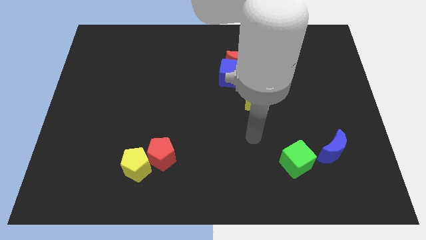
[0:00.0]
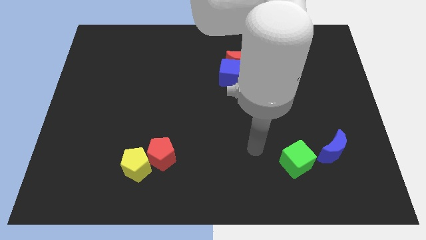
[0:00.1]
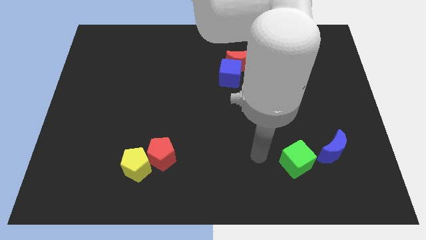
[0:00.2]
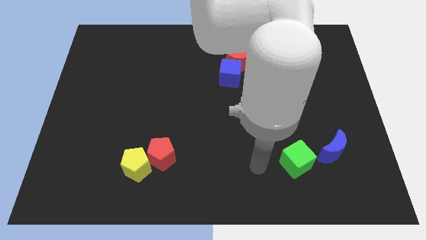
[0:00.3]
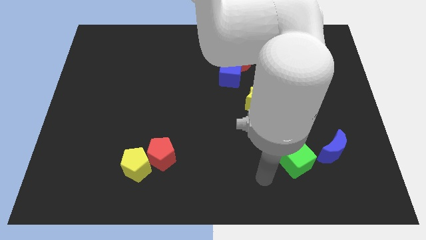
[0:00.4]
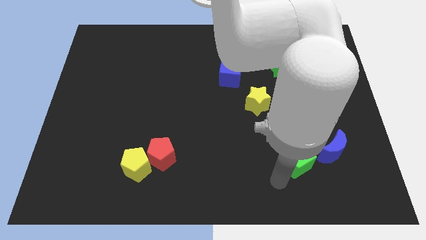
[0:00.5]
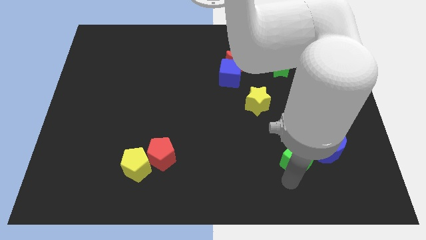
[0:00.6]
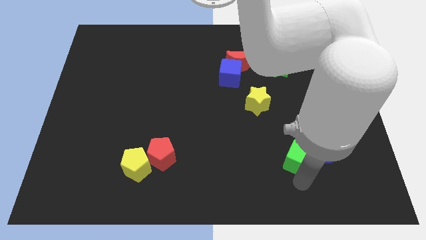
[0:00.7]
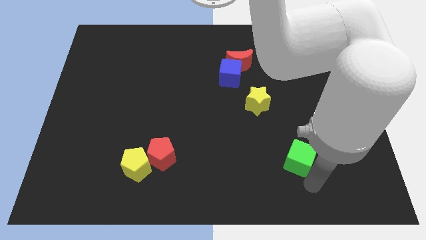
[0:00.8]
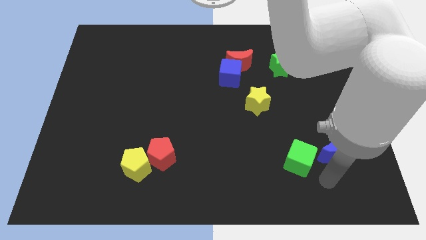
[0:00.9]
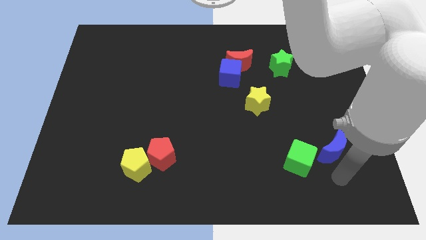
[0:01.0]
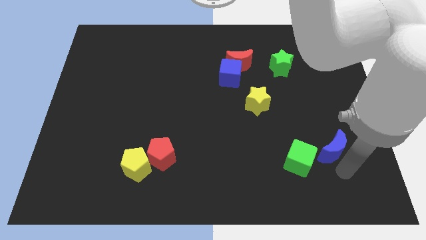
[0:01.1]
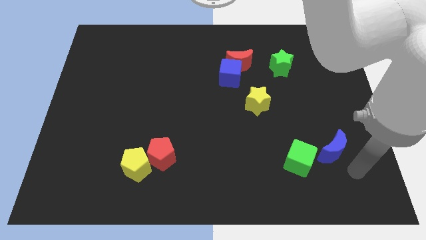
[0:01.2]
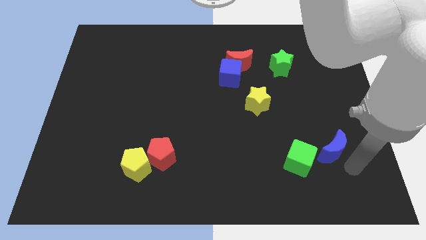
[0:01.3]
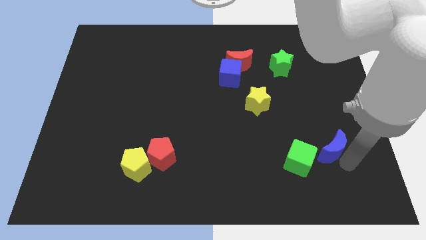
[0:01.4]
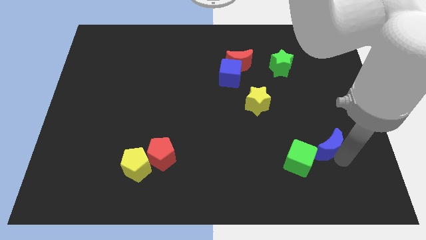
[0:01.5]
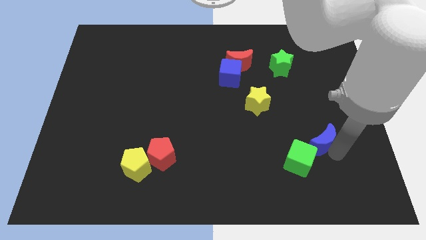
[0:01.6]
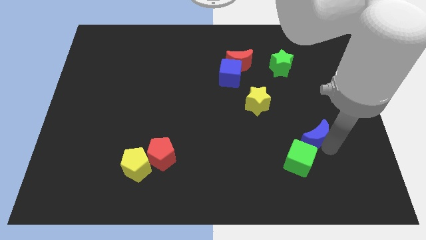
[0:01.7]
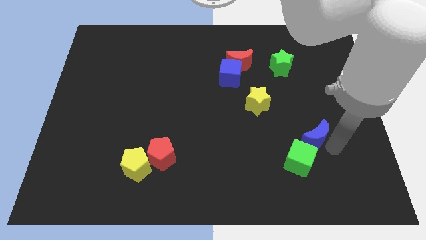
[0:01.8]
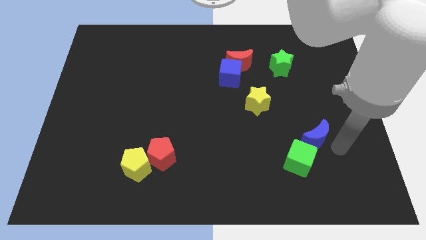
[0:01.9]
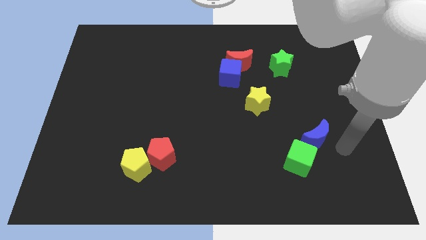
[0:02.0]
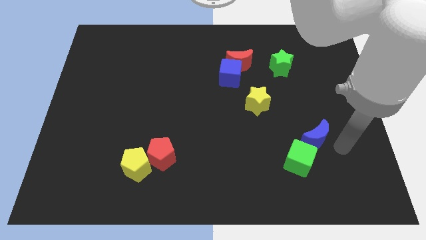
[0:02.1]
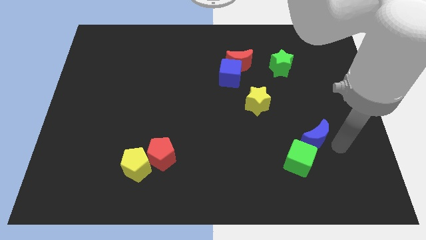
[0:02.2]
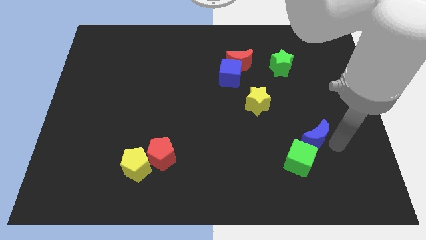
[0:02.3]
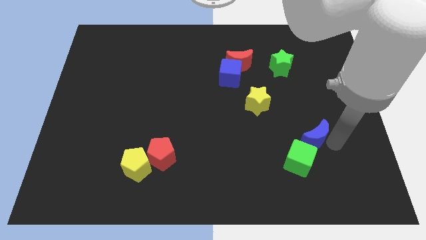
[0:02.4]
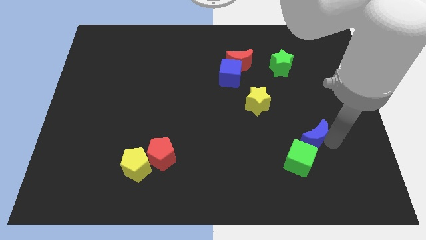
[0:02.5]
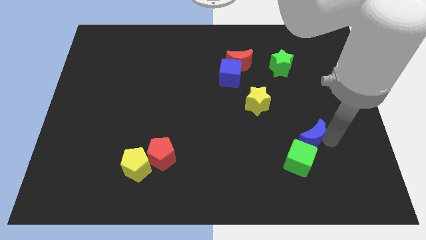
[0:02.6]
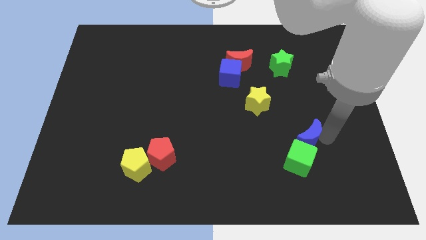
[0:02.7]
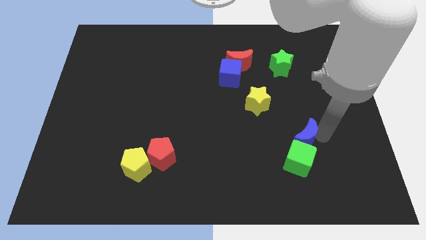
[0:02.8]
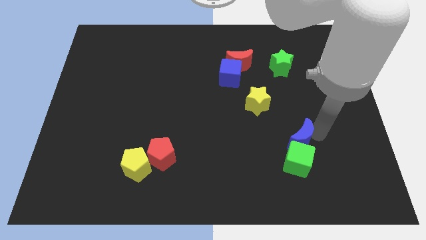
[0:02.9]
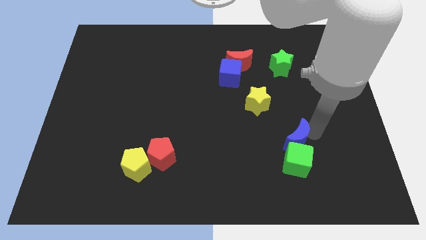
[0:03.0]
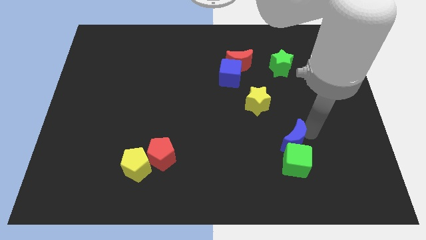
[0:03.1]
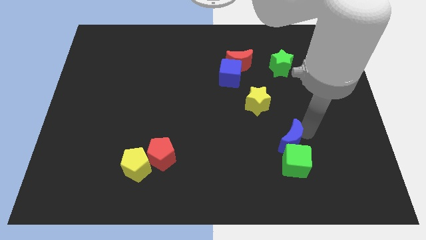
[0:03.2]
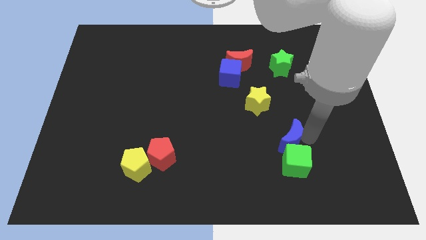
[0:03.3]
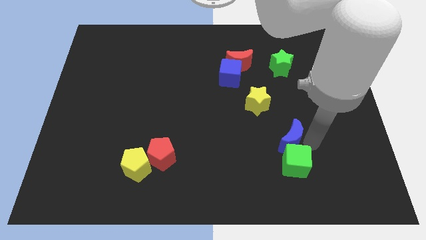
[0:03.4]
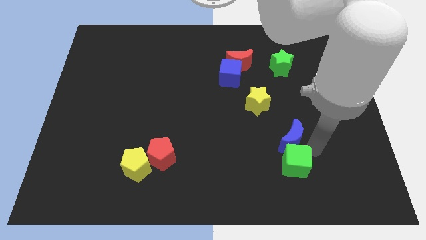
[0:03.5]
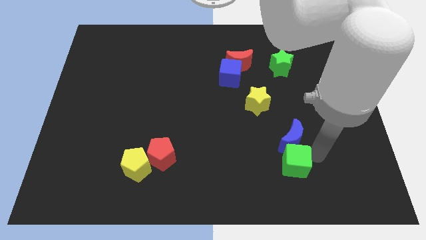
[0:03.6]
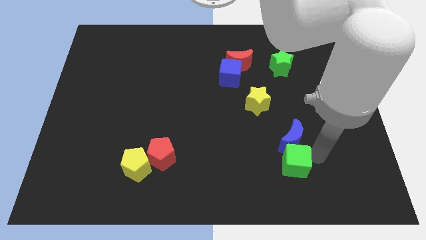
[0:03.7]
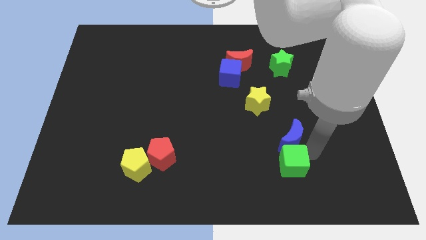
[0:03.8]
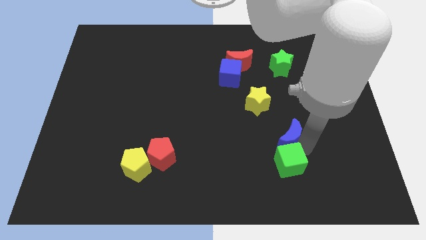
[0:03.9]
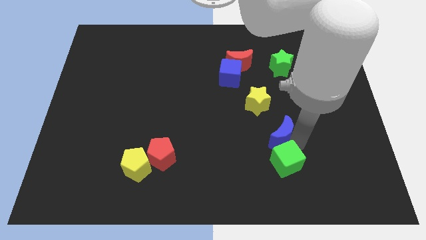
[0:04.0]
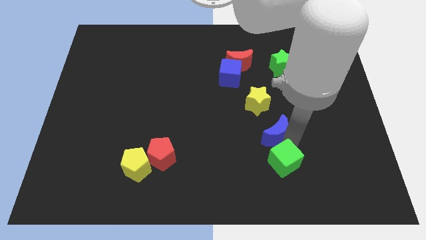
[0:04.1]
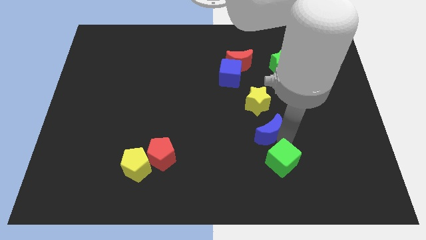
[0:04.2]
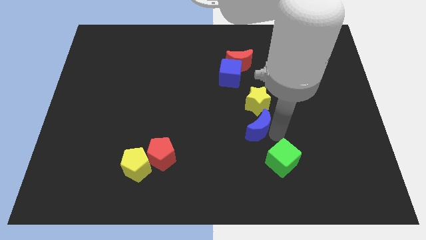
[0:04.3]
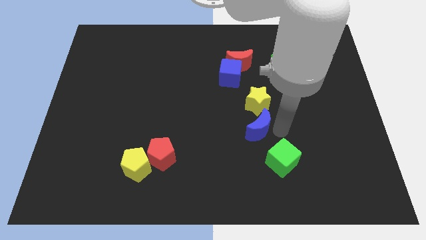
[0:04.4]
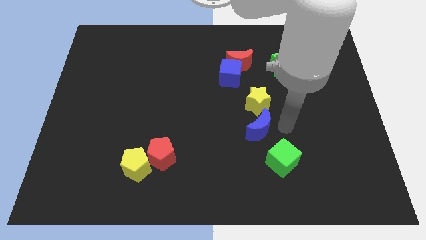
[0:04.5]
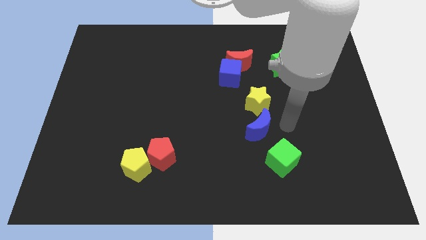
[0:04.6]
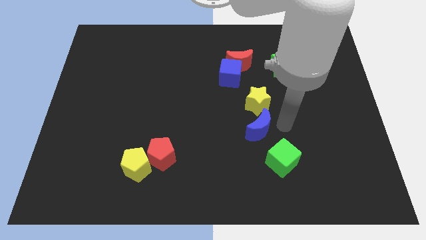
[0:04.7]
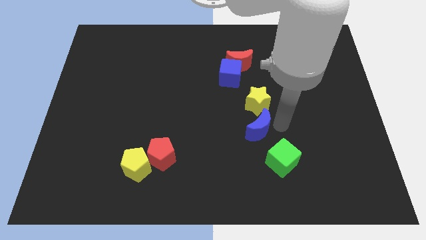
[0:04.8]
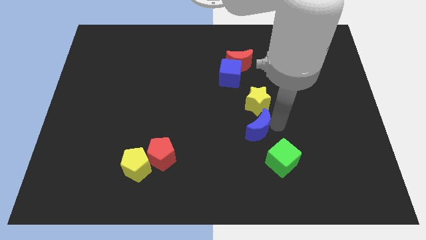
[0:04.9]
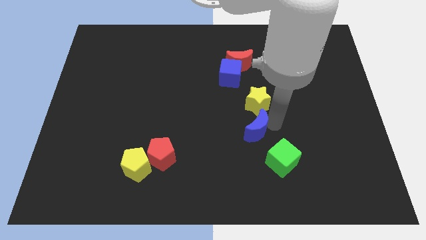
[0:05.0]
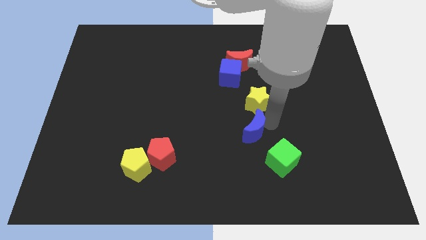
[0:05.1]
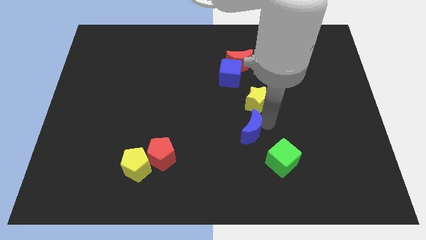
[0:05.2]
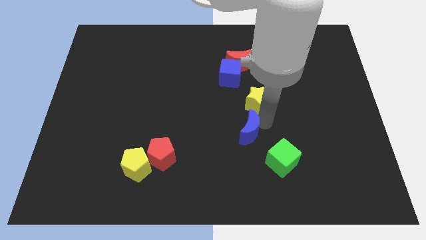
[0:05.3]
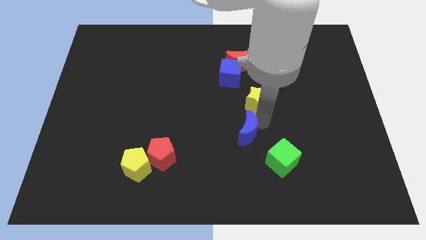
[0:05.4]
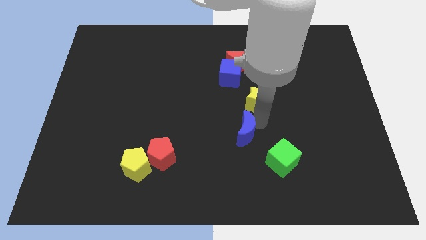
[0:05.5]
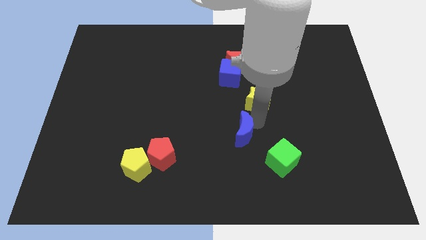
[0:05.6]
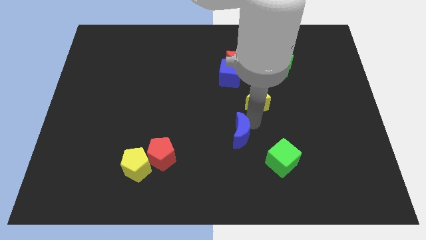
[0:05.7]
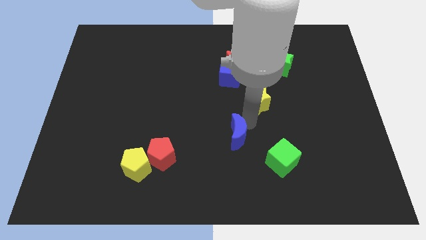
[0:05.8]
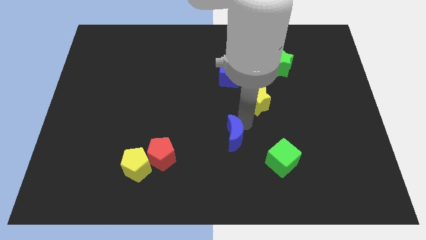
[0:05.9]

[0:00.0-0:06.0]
push the blue moon to the left

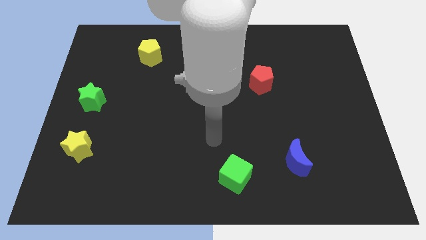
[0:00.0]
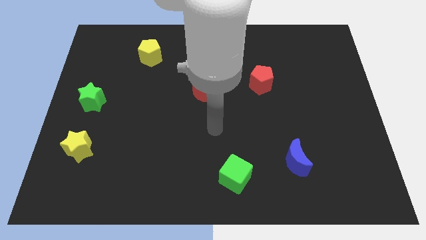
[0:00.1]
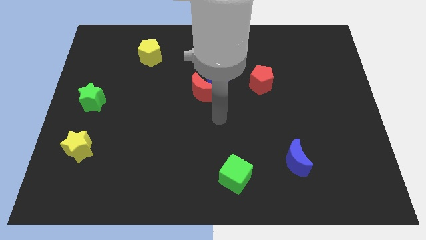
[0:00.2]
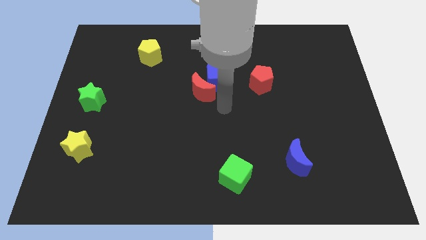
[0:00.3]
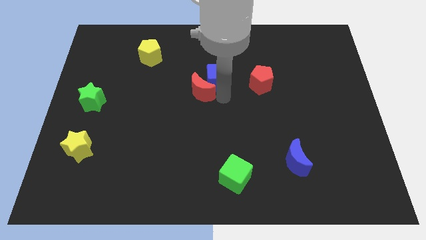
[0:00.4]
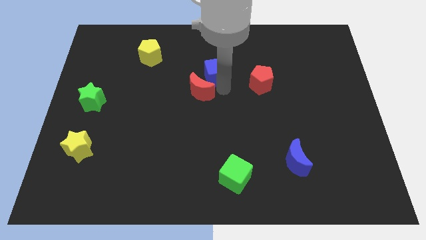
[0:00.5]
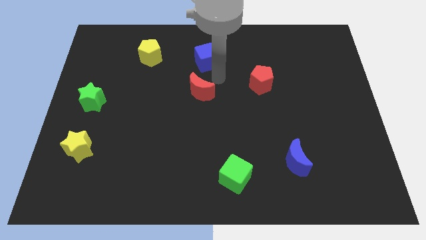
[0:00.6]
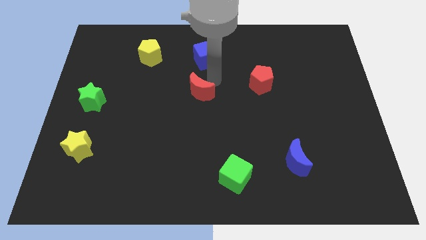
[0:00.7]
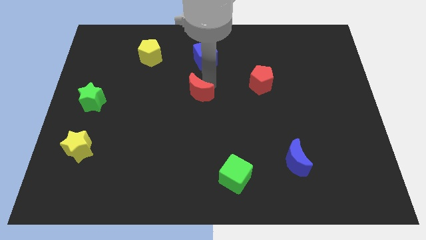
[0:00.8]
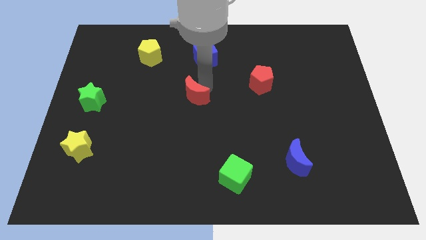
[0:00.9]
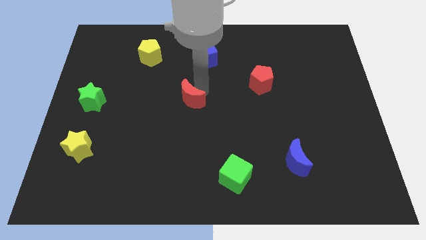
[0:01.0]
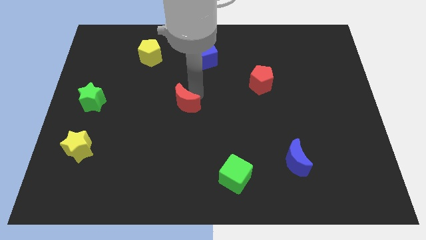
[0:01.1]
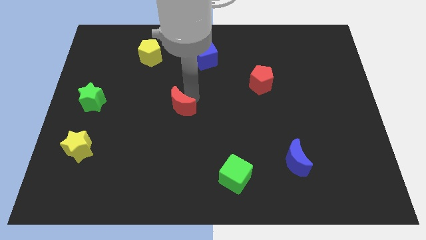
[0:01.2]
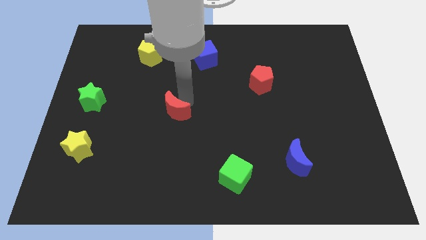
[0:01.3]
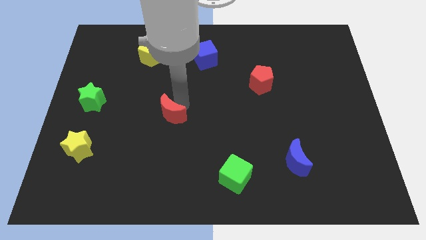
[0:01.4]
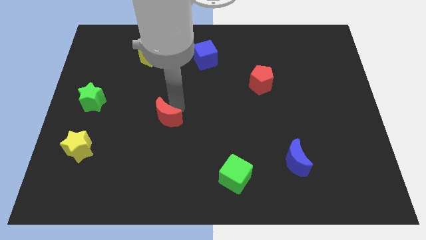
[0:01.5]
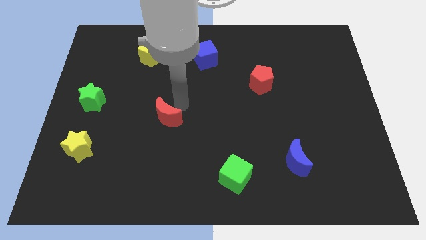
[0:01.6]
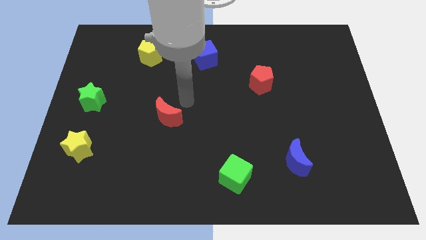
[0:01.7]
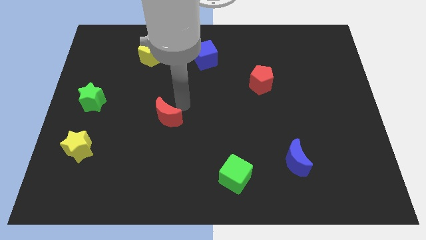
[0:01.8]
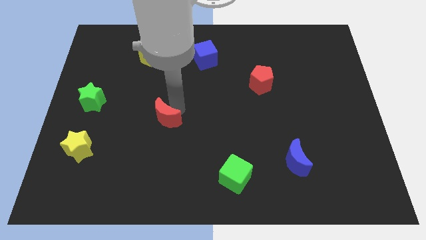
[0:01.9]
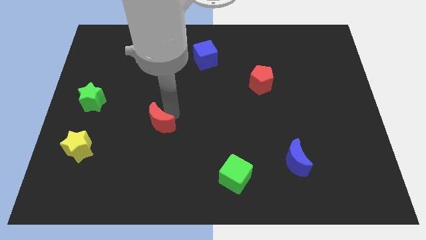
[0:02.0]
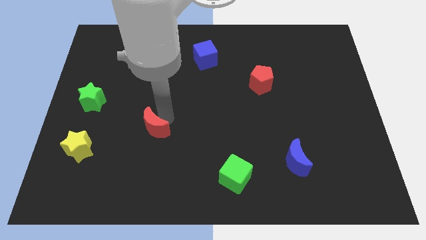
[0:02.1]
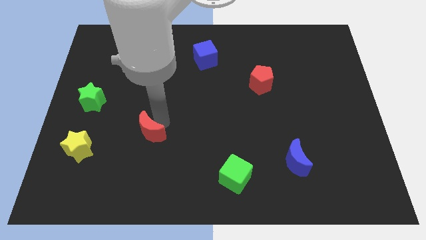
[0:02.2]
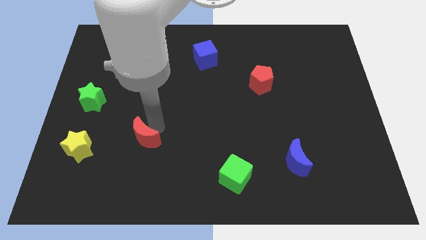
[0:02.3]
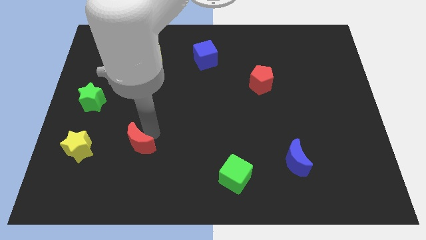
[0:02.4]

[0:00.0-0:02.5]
push the red moon diagonally down and left
